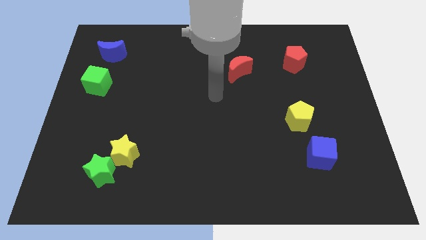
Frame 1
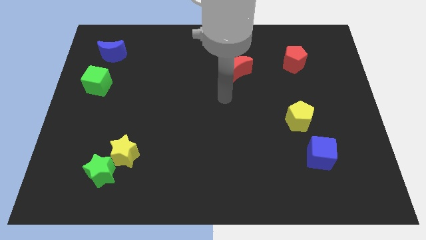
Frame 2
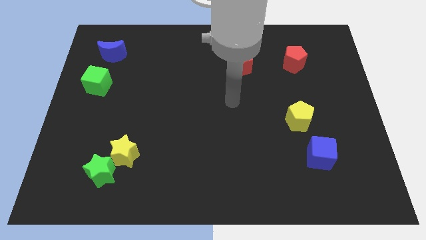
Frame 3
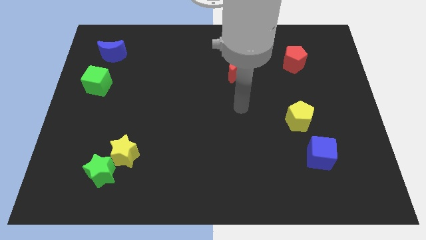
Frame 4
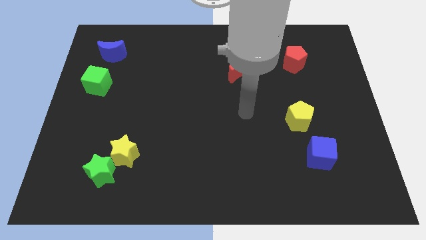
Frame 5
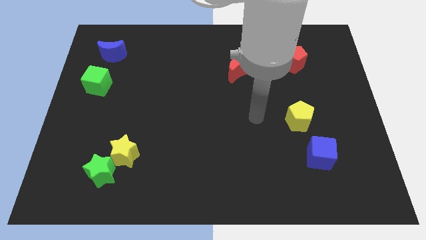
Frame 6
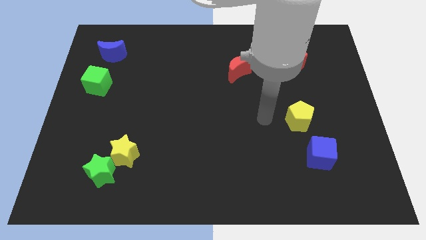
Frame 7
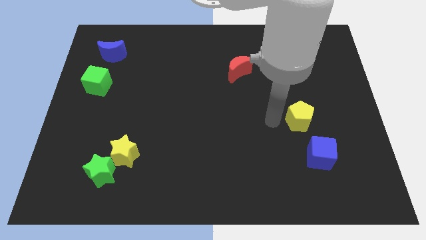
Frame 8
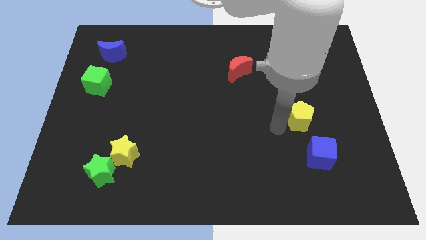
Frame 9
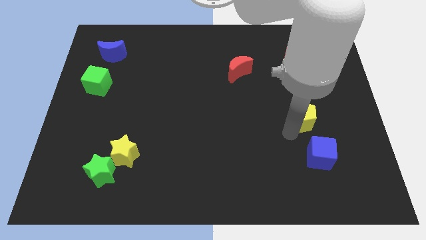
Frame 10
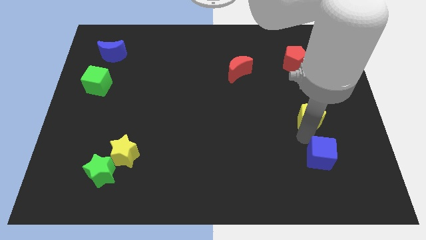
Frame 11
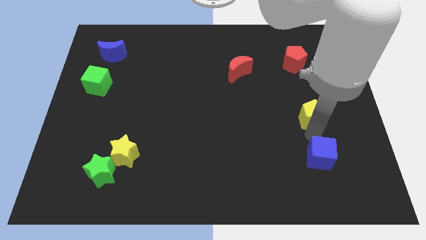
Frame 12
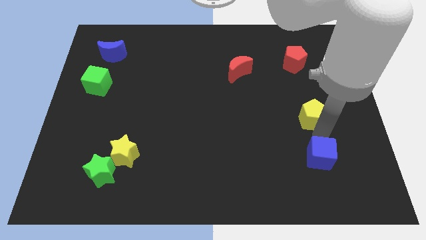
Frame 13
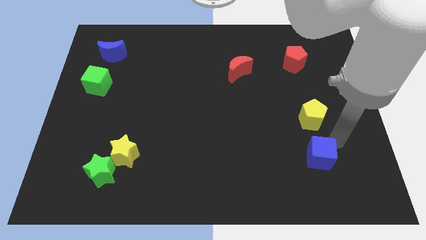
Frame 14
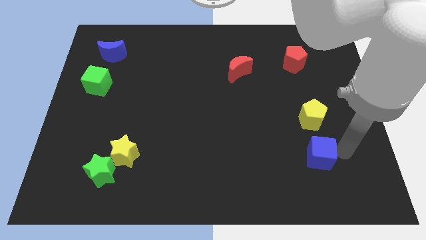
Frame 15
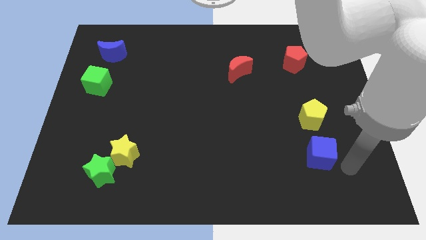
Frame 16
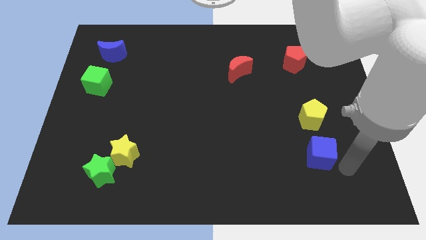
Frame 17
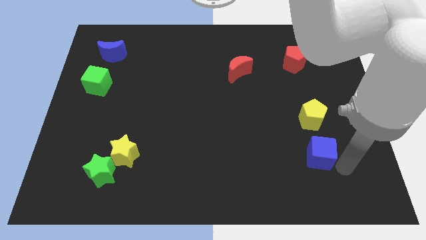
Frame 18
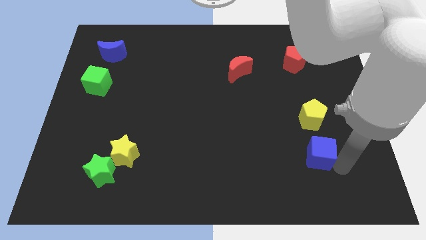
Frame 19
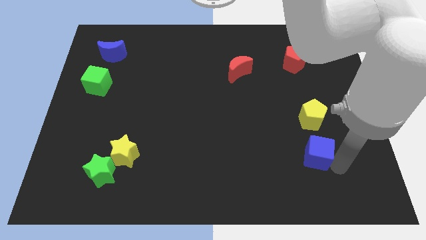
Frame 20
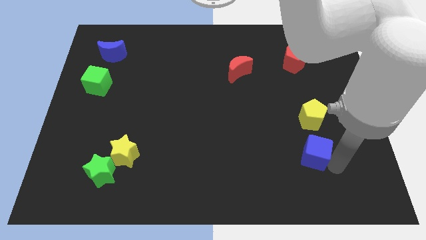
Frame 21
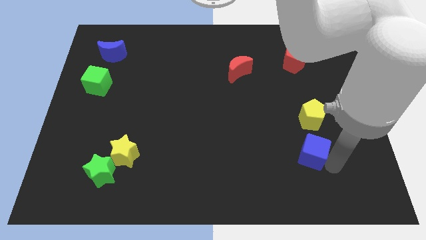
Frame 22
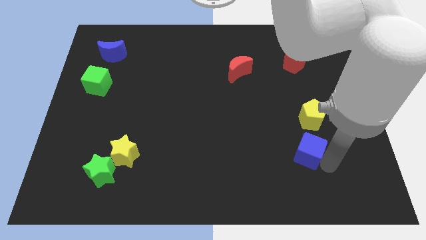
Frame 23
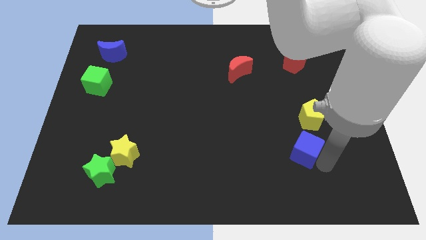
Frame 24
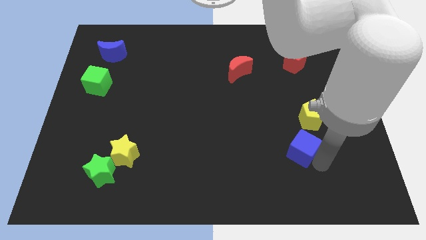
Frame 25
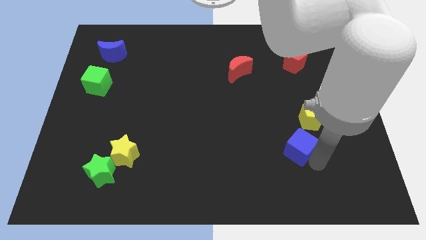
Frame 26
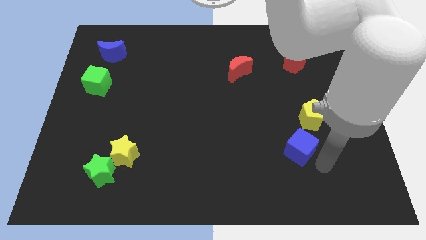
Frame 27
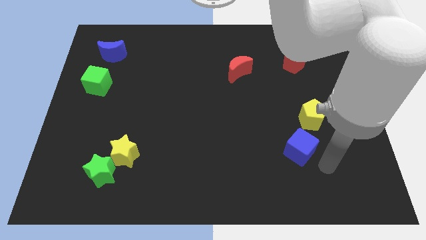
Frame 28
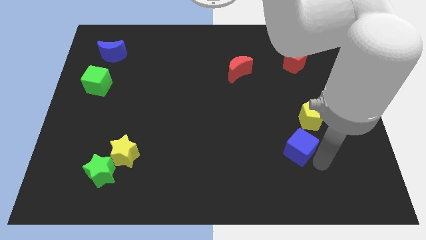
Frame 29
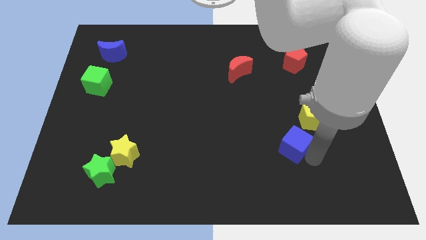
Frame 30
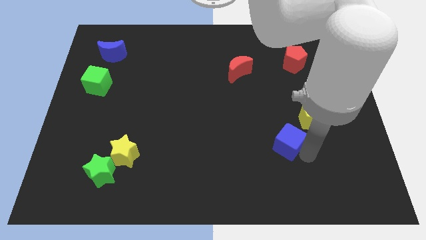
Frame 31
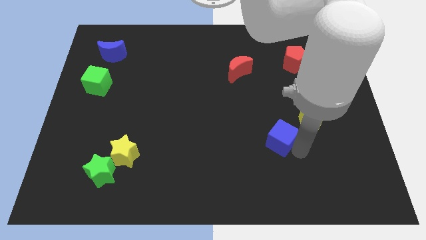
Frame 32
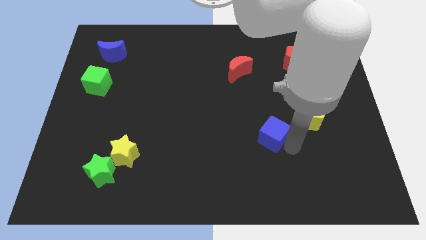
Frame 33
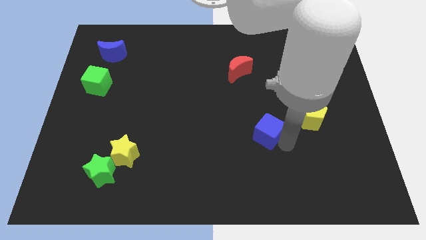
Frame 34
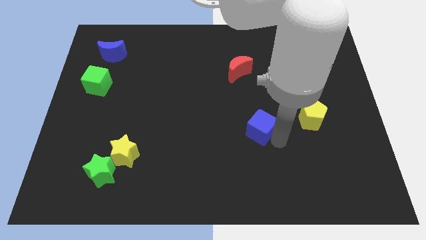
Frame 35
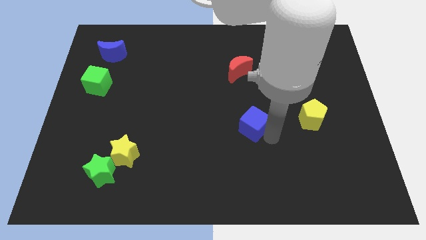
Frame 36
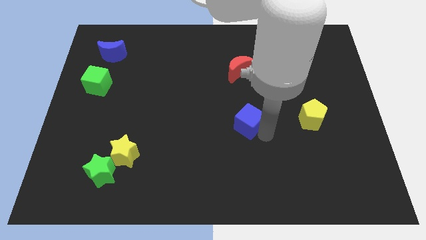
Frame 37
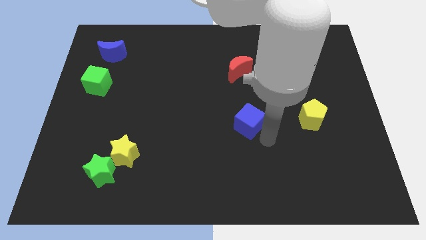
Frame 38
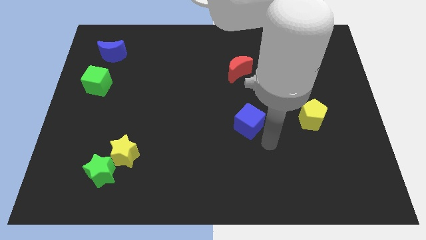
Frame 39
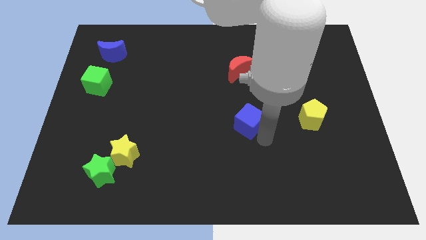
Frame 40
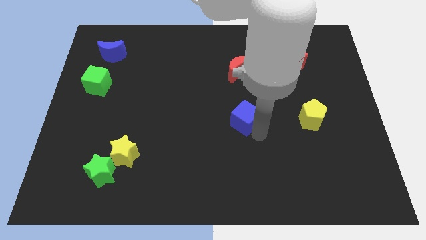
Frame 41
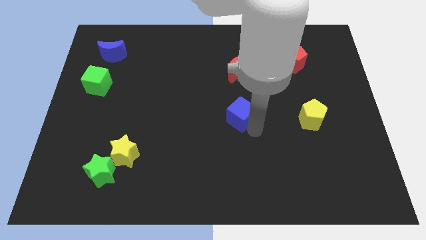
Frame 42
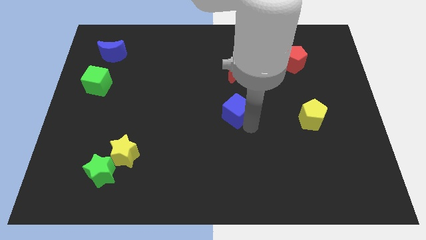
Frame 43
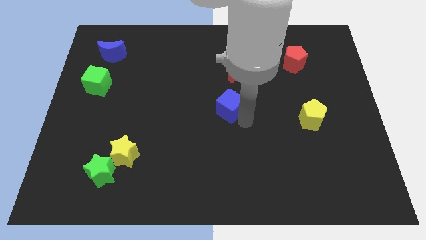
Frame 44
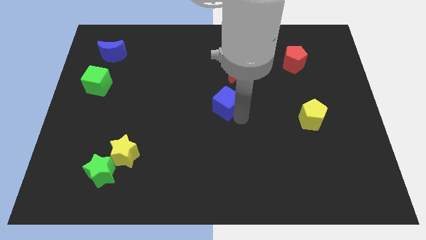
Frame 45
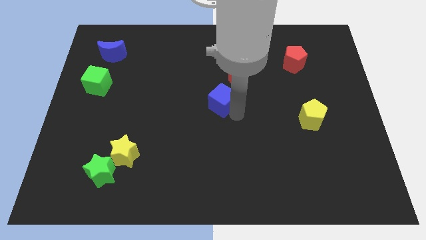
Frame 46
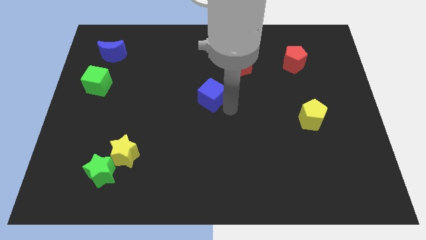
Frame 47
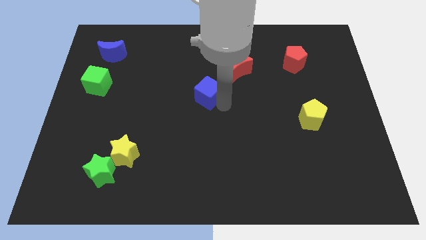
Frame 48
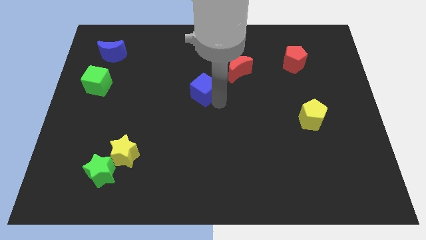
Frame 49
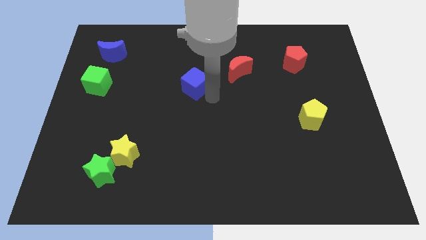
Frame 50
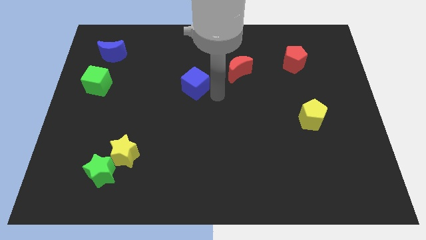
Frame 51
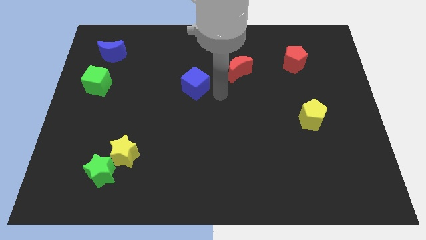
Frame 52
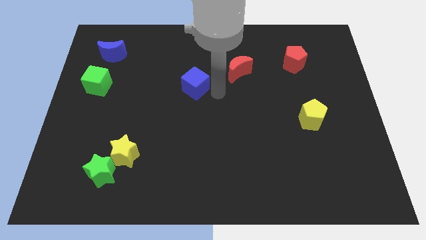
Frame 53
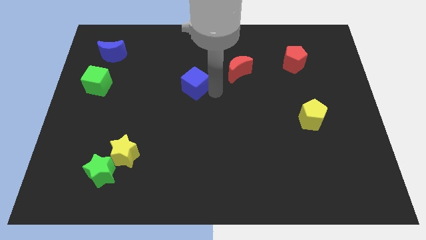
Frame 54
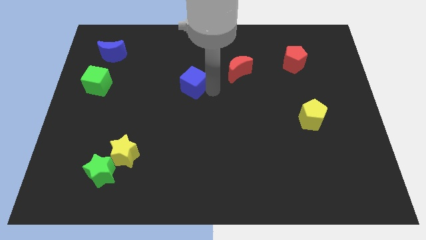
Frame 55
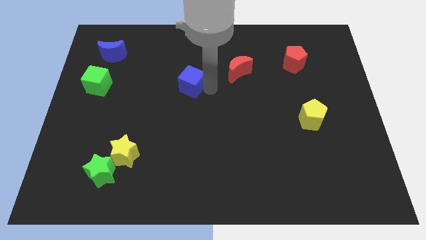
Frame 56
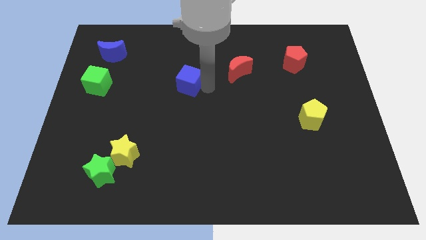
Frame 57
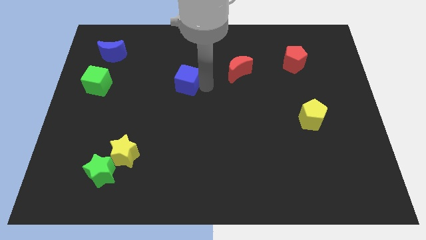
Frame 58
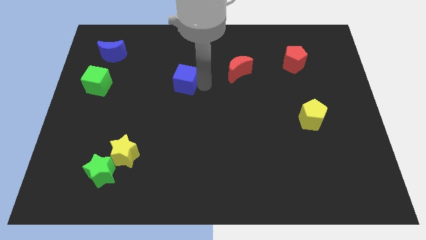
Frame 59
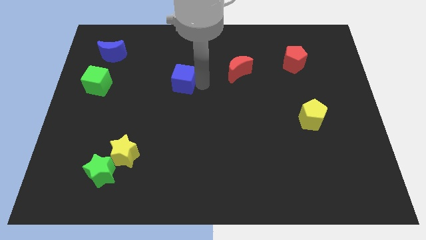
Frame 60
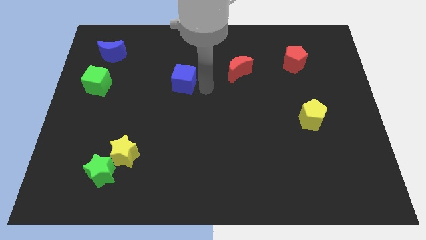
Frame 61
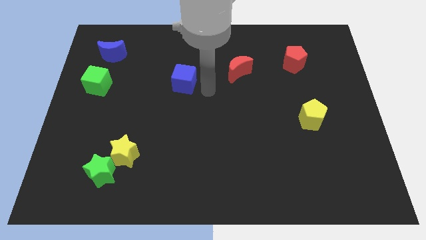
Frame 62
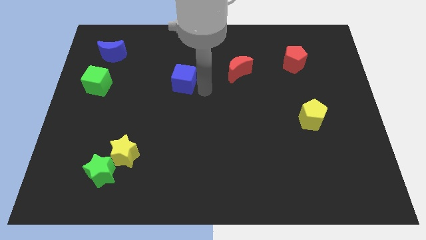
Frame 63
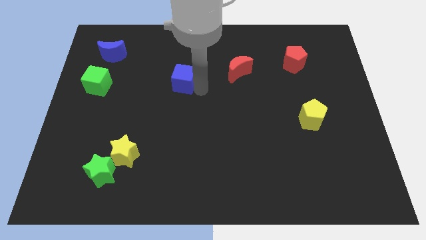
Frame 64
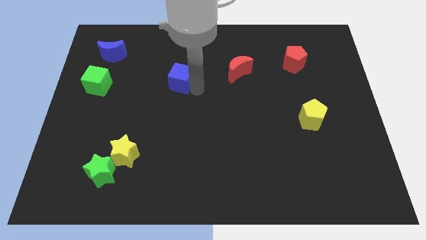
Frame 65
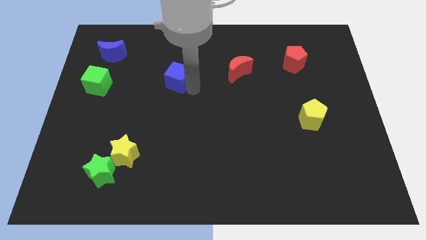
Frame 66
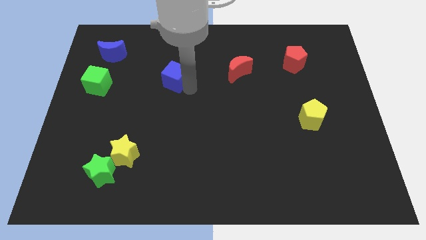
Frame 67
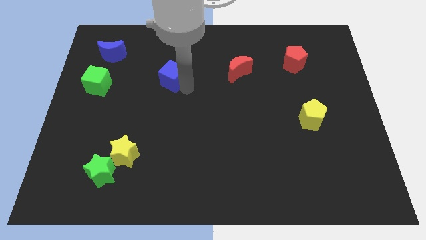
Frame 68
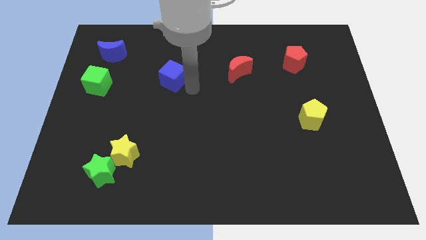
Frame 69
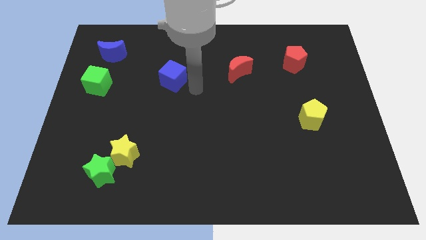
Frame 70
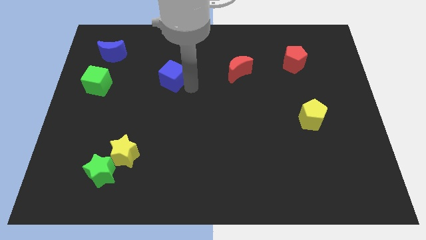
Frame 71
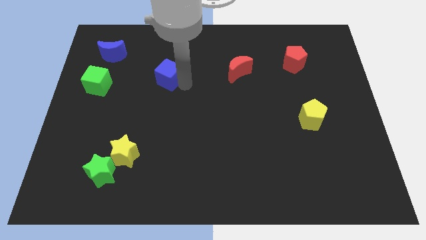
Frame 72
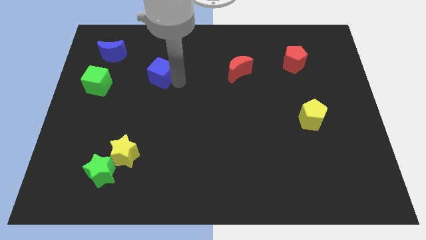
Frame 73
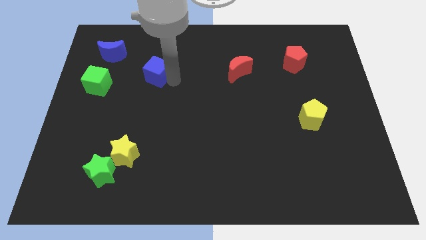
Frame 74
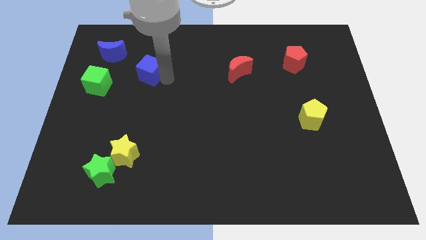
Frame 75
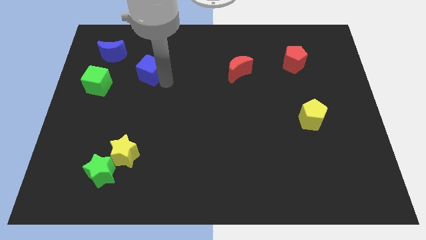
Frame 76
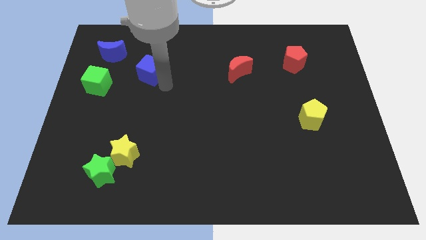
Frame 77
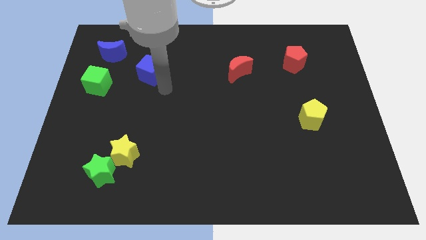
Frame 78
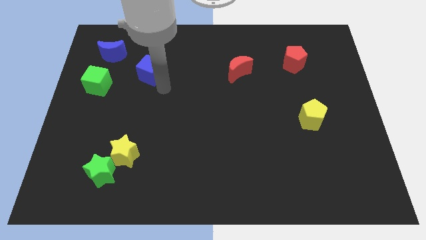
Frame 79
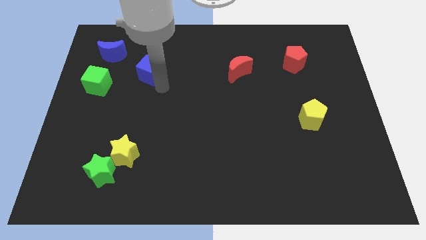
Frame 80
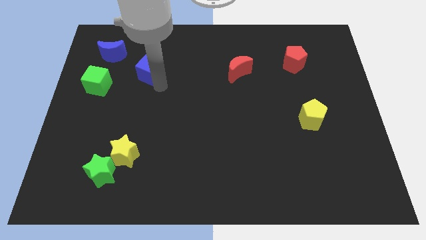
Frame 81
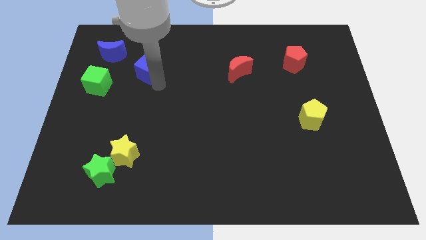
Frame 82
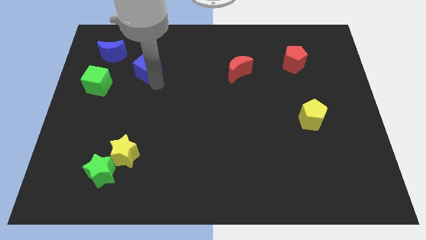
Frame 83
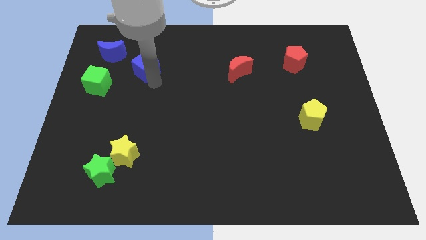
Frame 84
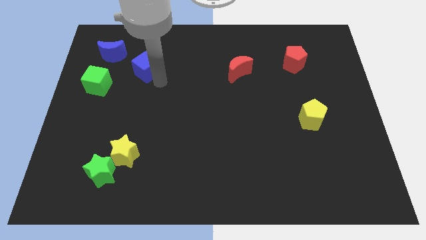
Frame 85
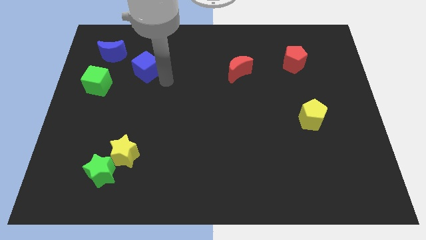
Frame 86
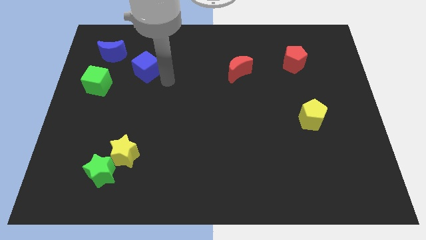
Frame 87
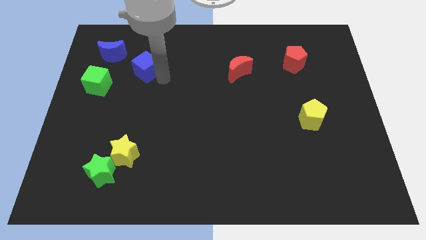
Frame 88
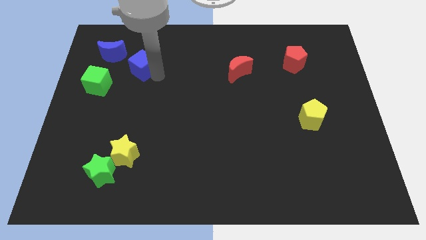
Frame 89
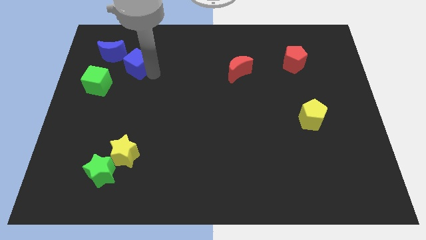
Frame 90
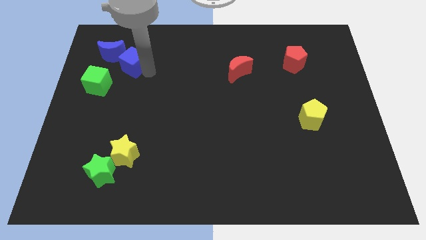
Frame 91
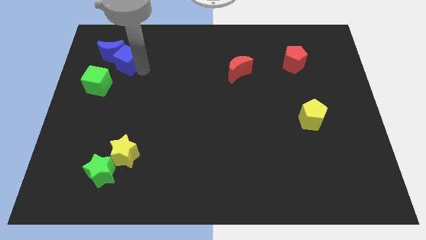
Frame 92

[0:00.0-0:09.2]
move the blue cube towards the blue moon
